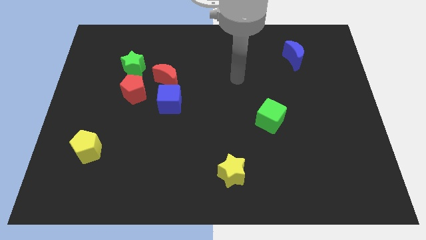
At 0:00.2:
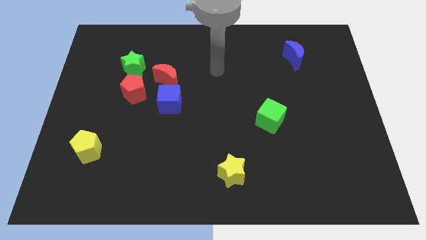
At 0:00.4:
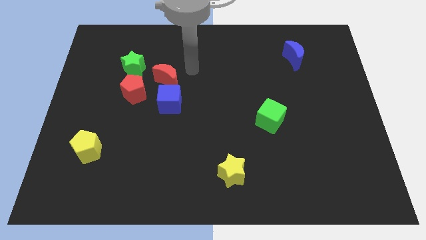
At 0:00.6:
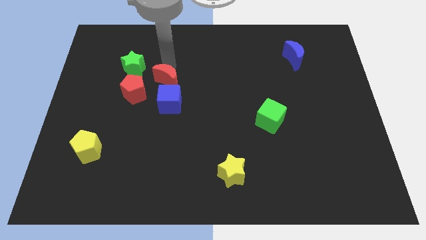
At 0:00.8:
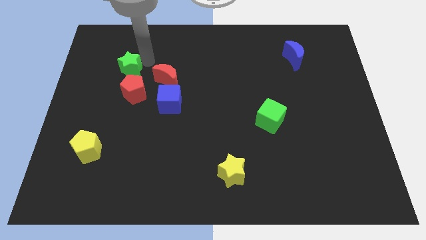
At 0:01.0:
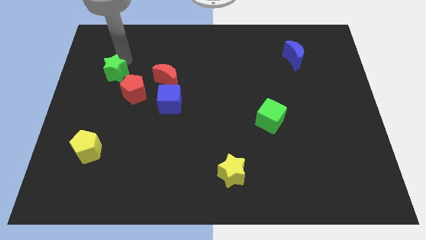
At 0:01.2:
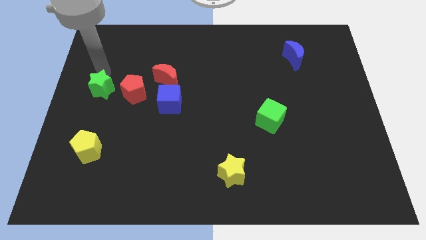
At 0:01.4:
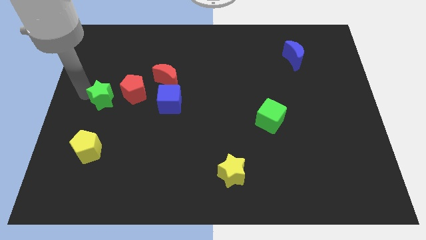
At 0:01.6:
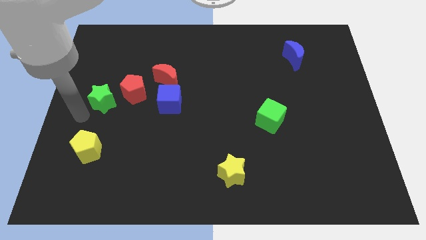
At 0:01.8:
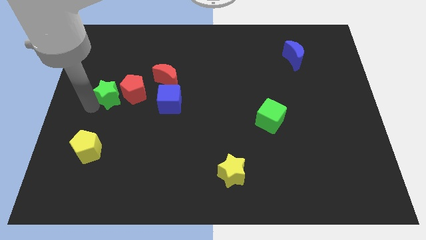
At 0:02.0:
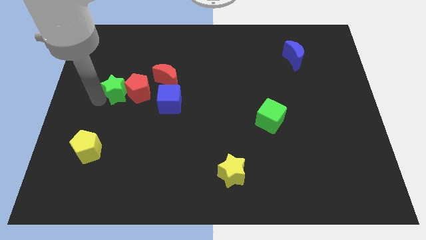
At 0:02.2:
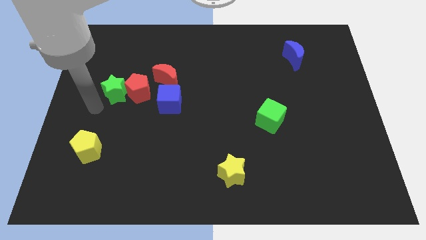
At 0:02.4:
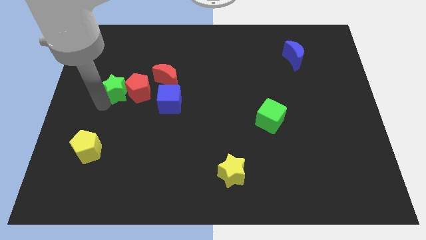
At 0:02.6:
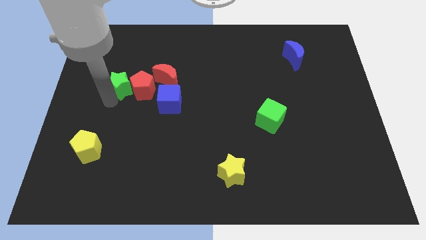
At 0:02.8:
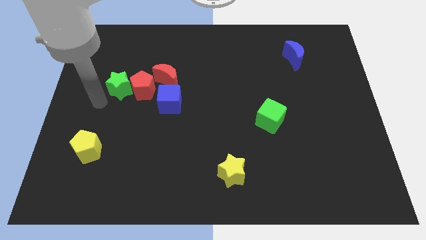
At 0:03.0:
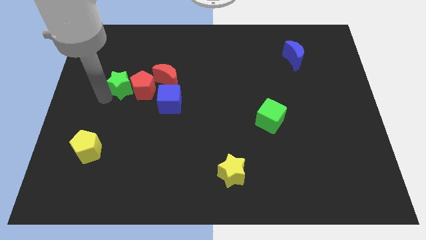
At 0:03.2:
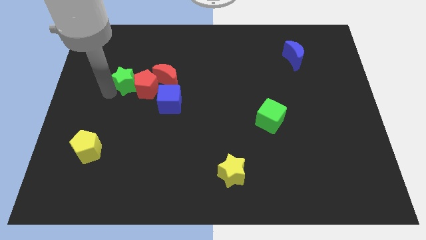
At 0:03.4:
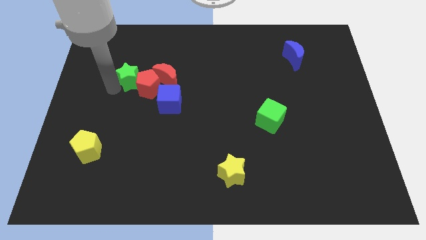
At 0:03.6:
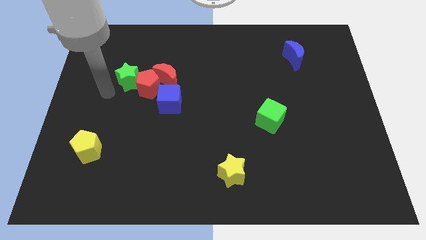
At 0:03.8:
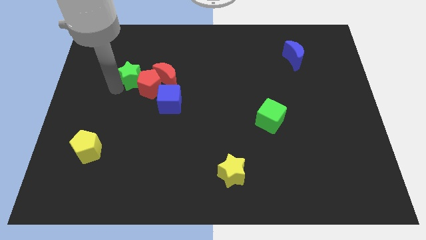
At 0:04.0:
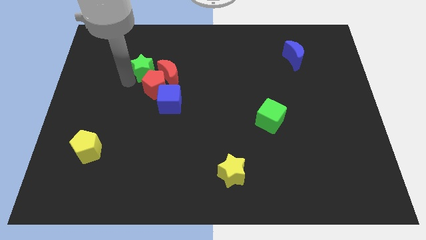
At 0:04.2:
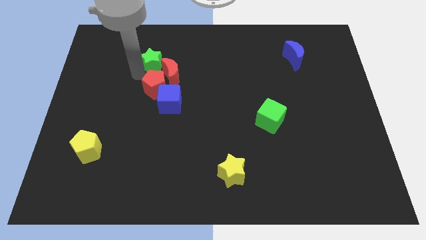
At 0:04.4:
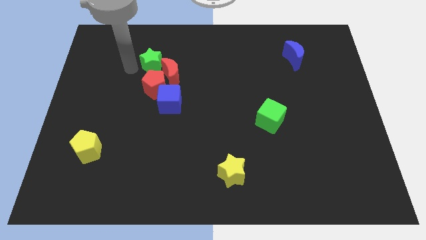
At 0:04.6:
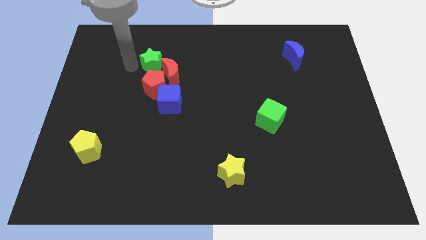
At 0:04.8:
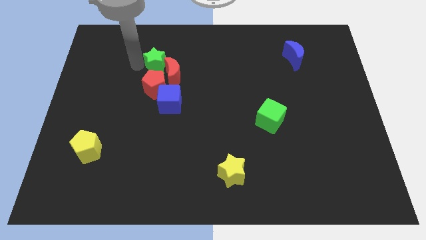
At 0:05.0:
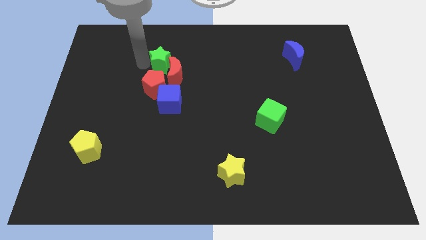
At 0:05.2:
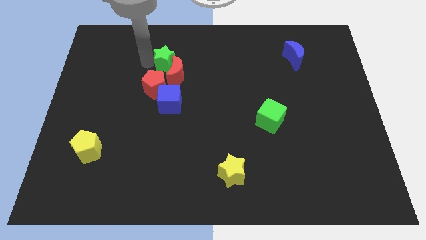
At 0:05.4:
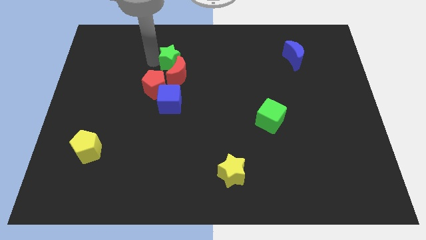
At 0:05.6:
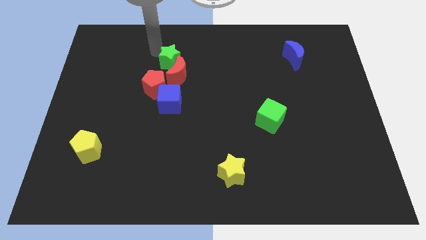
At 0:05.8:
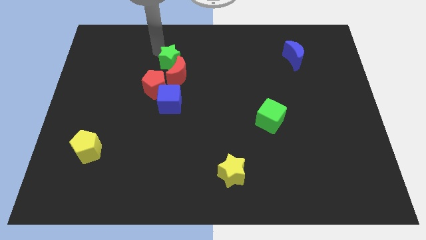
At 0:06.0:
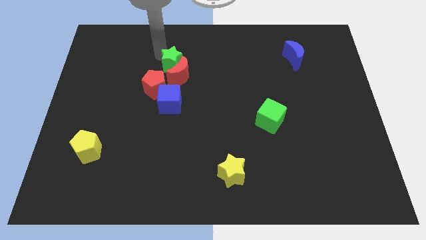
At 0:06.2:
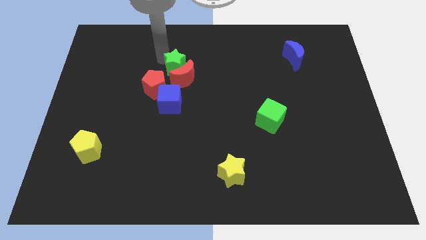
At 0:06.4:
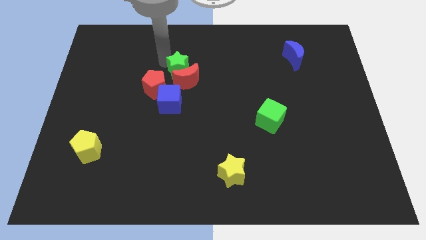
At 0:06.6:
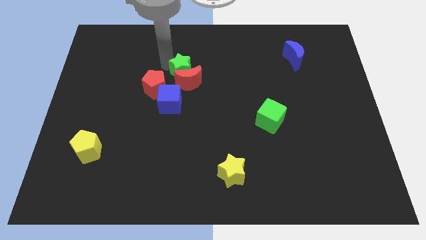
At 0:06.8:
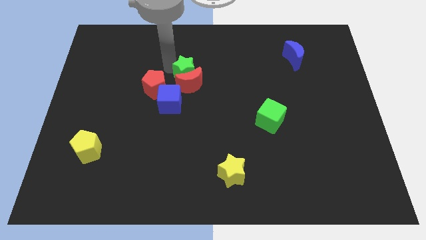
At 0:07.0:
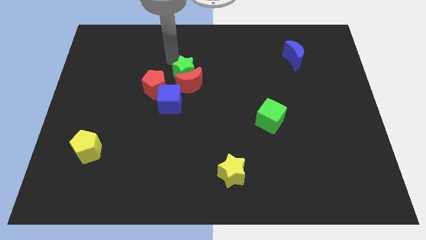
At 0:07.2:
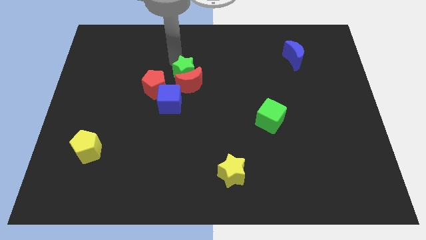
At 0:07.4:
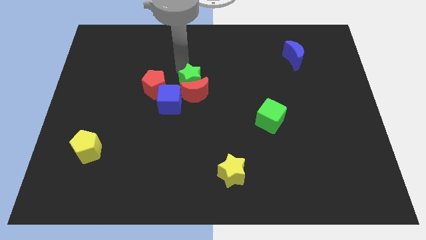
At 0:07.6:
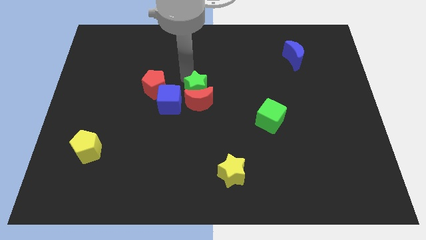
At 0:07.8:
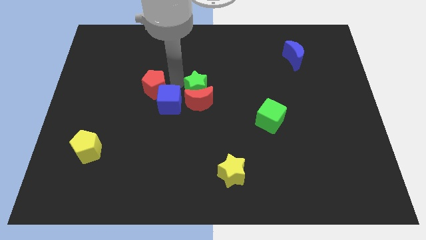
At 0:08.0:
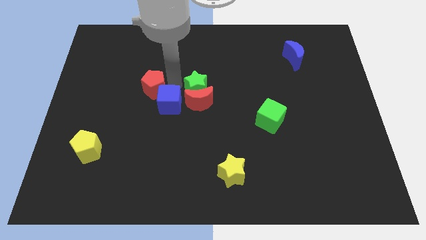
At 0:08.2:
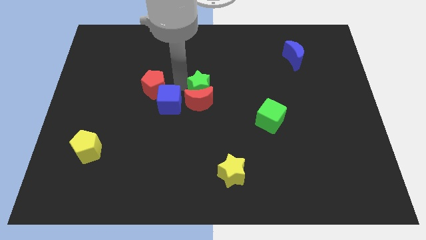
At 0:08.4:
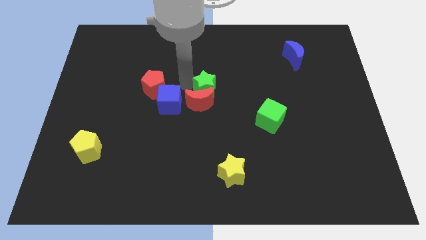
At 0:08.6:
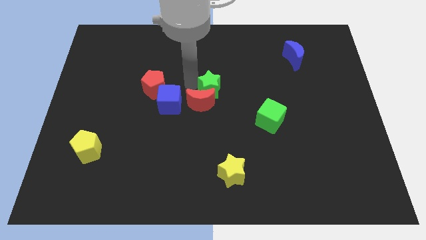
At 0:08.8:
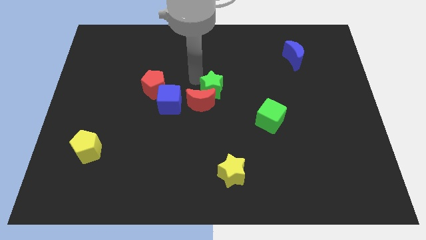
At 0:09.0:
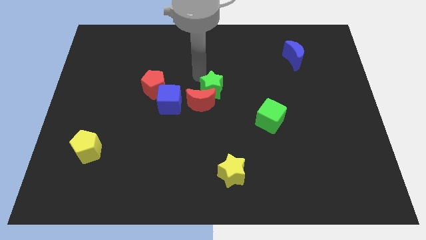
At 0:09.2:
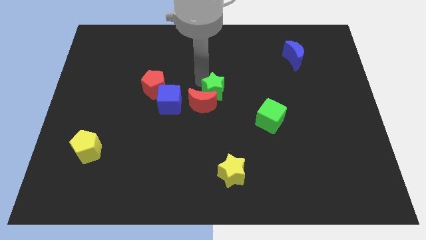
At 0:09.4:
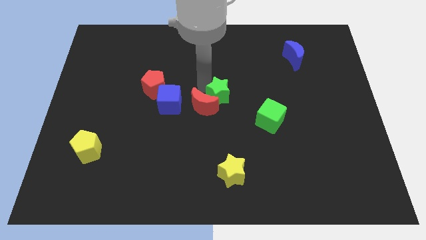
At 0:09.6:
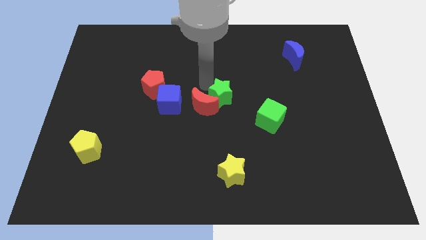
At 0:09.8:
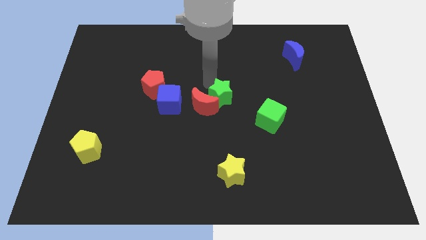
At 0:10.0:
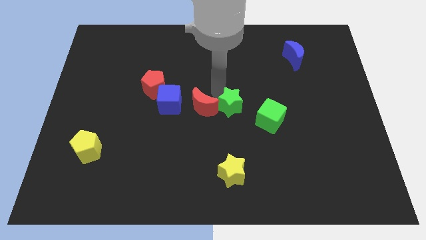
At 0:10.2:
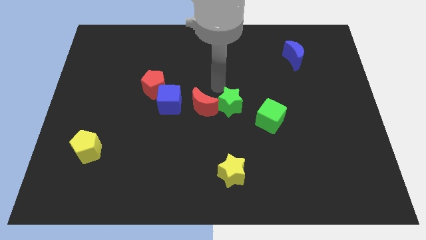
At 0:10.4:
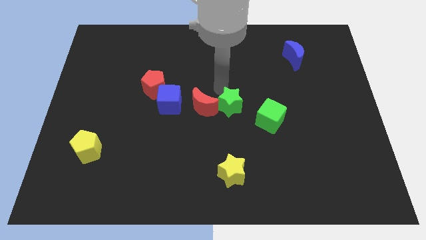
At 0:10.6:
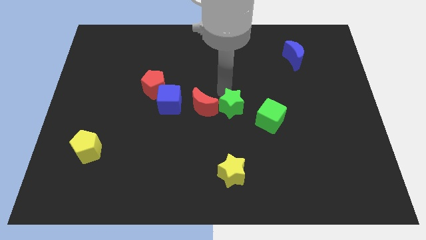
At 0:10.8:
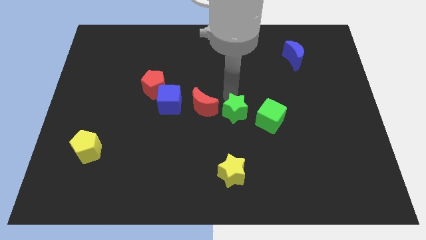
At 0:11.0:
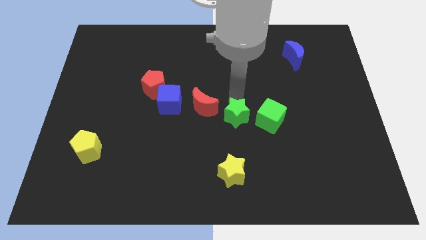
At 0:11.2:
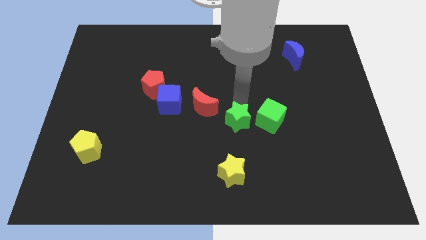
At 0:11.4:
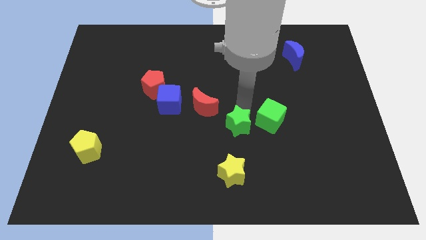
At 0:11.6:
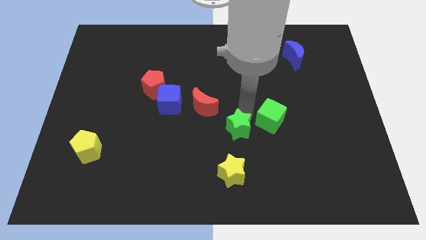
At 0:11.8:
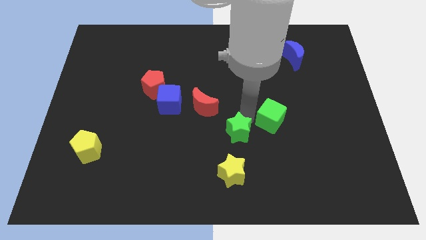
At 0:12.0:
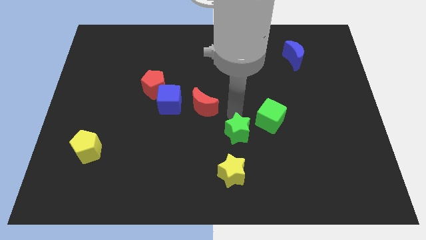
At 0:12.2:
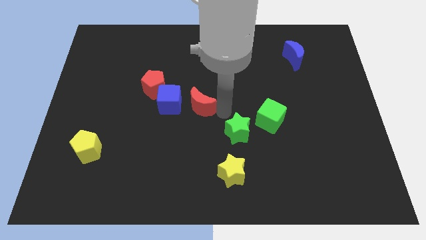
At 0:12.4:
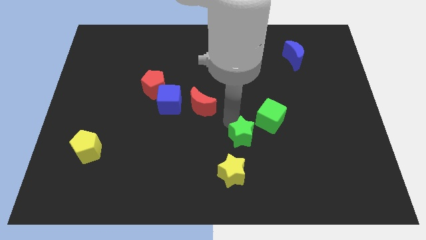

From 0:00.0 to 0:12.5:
push the green star to the top right of the yellow star

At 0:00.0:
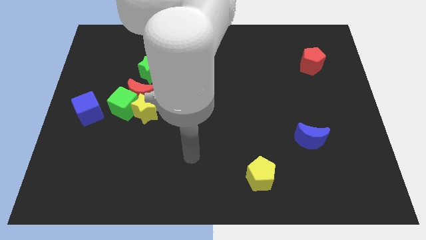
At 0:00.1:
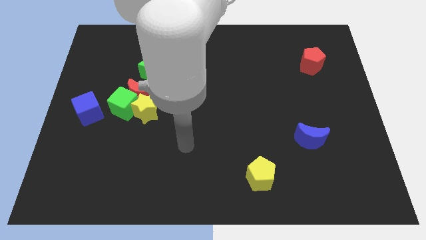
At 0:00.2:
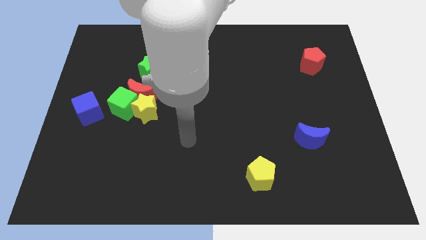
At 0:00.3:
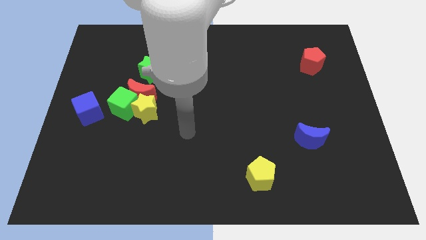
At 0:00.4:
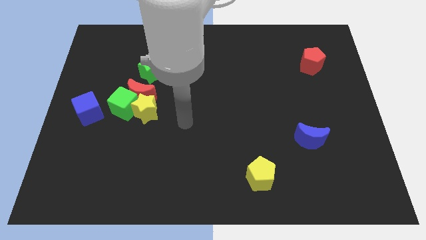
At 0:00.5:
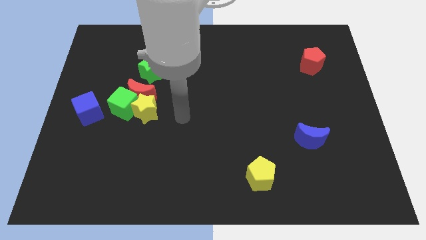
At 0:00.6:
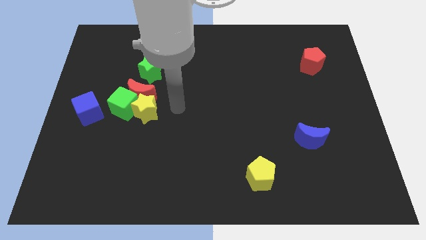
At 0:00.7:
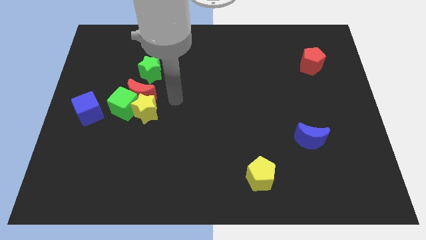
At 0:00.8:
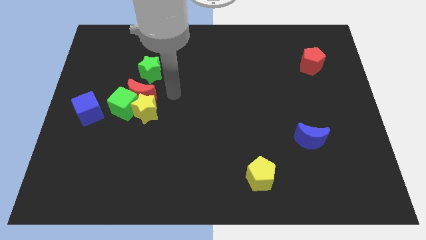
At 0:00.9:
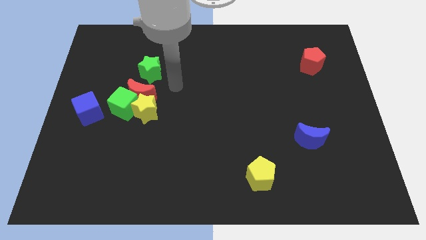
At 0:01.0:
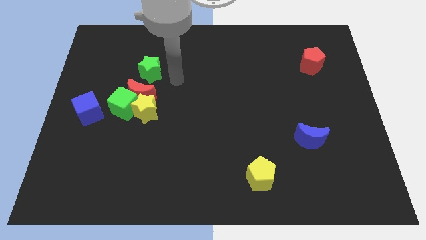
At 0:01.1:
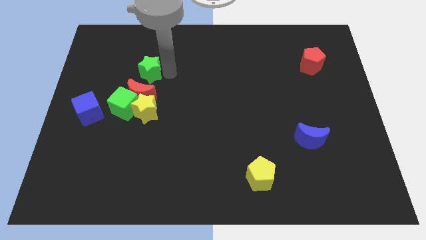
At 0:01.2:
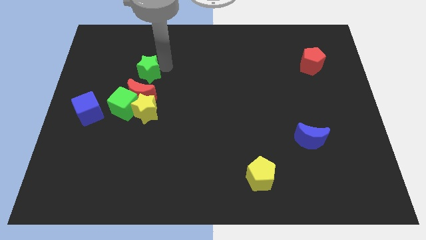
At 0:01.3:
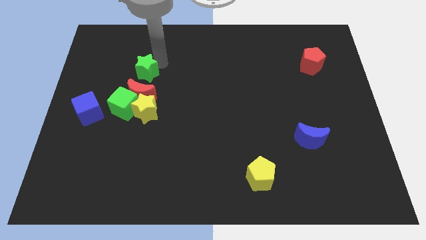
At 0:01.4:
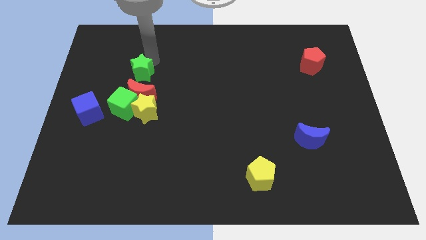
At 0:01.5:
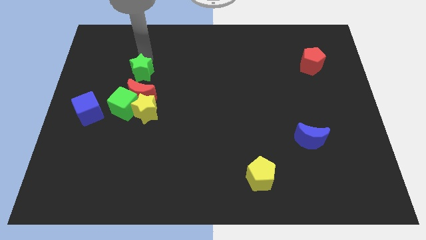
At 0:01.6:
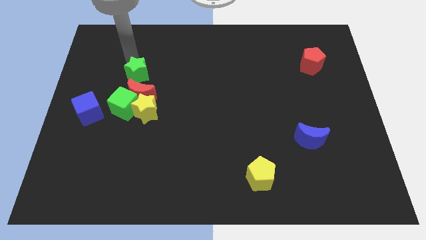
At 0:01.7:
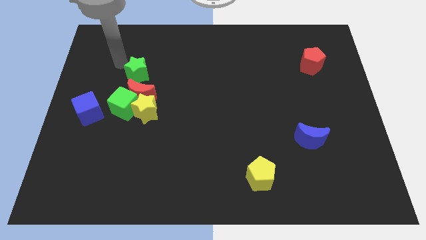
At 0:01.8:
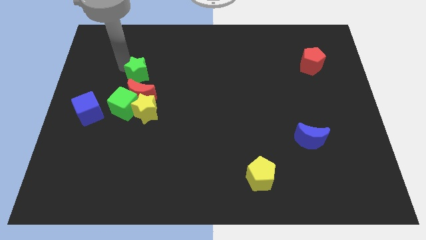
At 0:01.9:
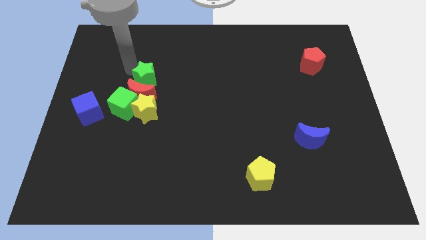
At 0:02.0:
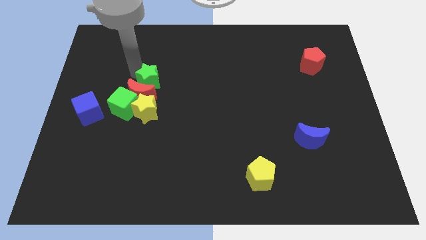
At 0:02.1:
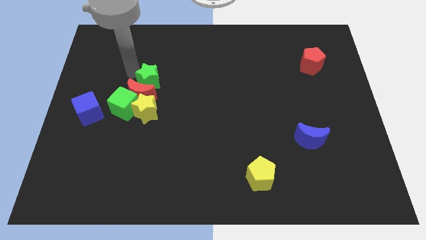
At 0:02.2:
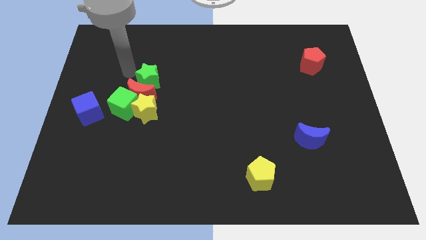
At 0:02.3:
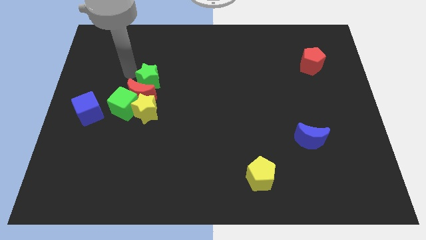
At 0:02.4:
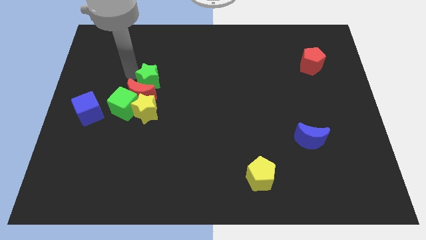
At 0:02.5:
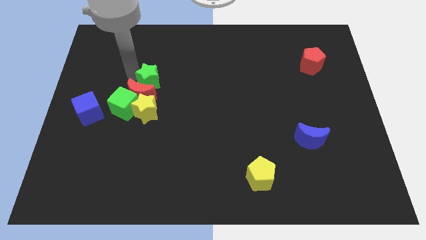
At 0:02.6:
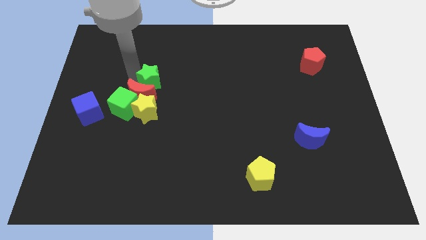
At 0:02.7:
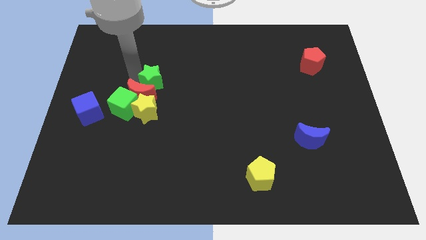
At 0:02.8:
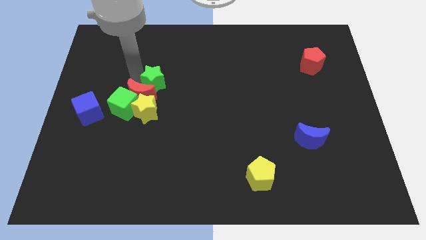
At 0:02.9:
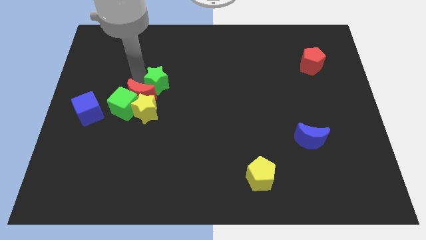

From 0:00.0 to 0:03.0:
move the green star to the right side of the red moon
